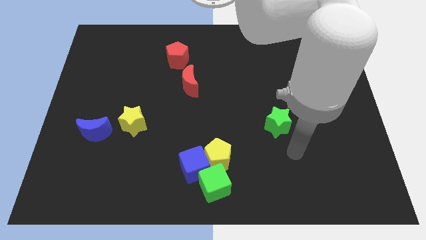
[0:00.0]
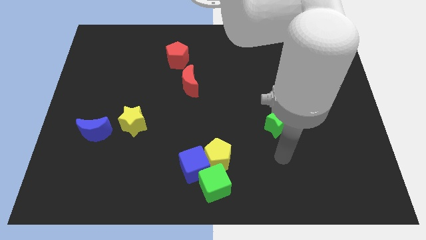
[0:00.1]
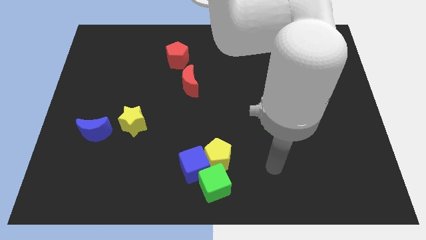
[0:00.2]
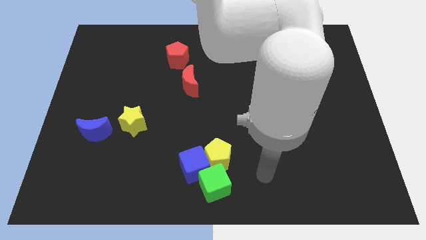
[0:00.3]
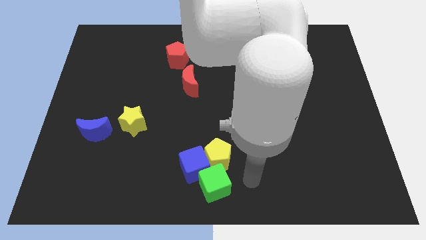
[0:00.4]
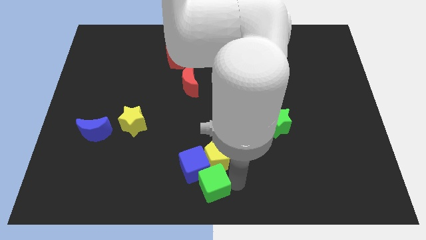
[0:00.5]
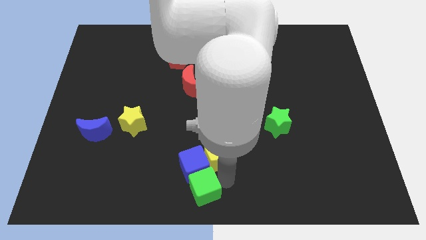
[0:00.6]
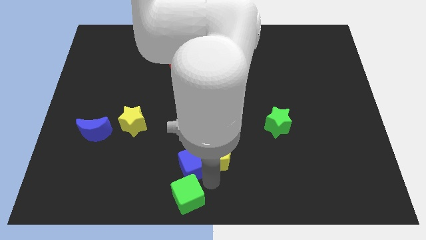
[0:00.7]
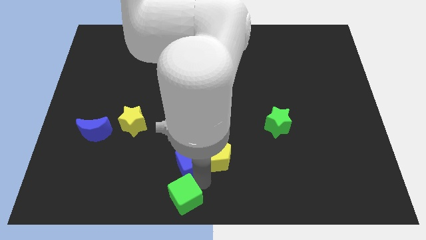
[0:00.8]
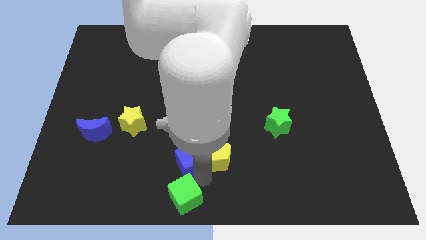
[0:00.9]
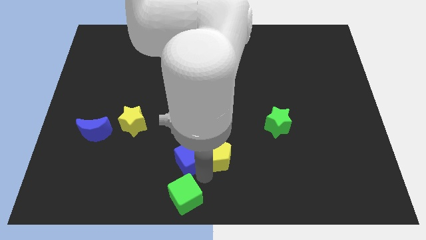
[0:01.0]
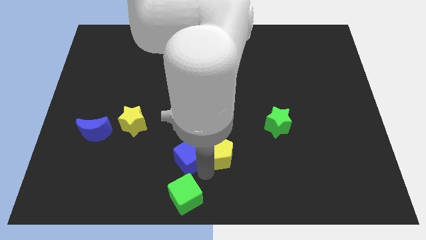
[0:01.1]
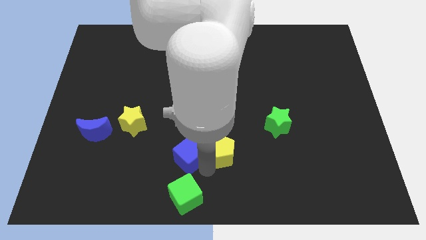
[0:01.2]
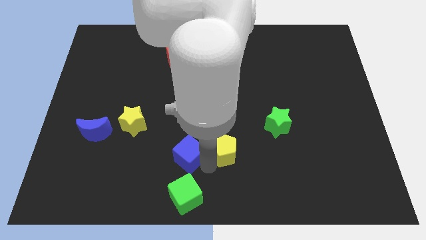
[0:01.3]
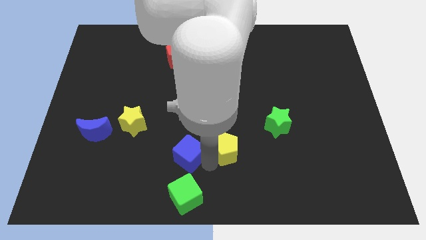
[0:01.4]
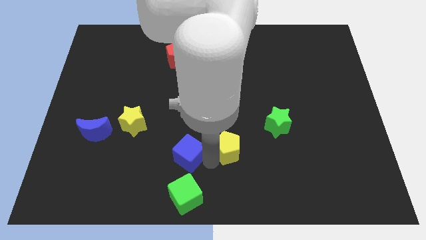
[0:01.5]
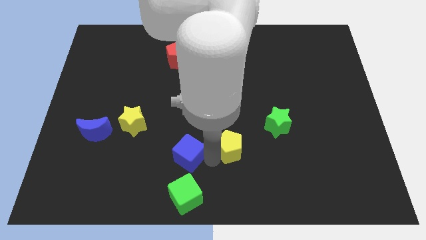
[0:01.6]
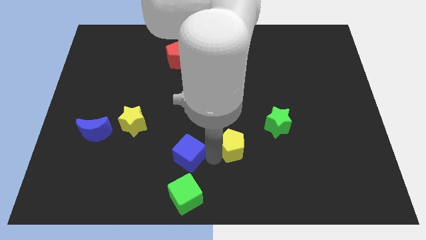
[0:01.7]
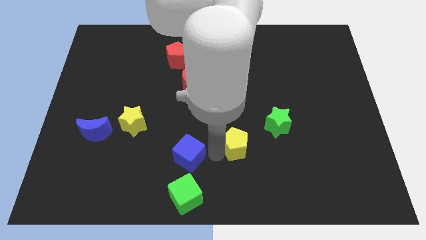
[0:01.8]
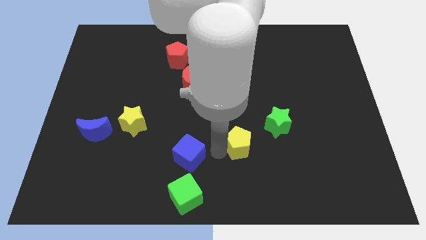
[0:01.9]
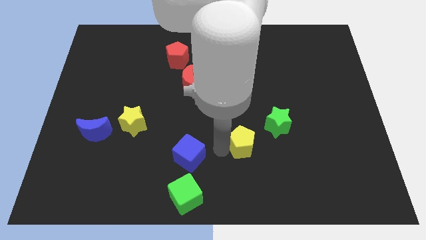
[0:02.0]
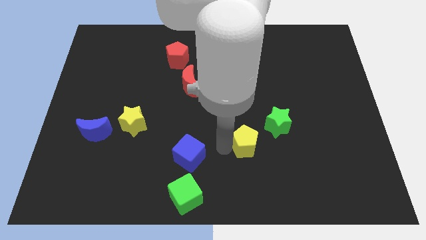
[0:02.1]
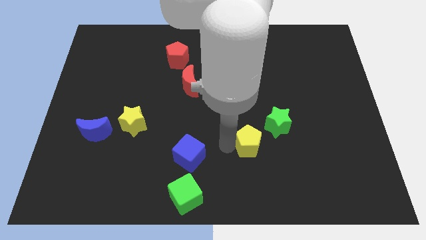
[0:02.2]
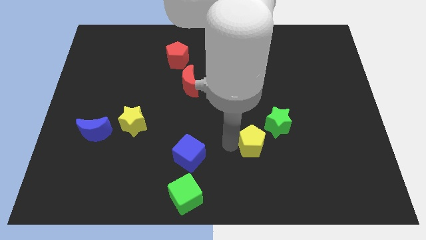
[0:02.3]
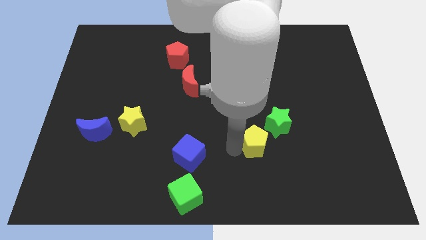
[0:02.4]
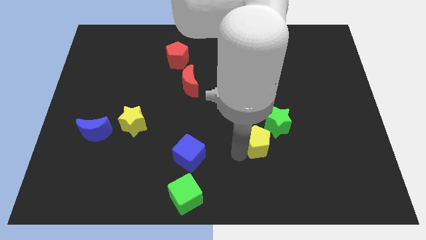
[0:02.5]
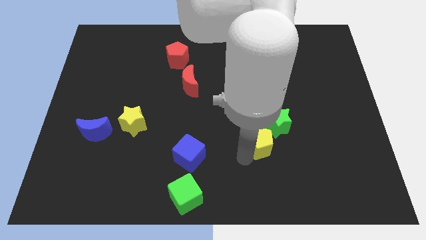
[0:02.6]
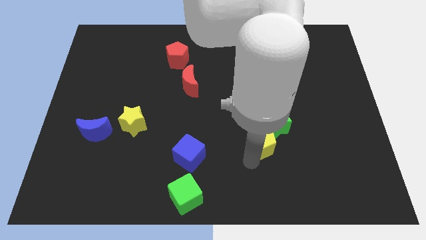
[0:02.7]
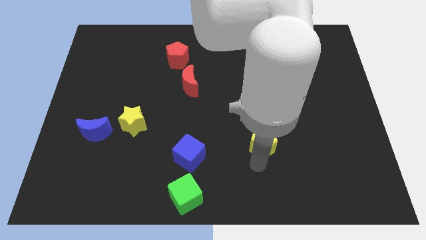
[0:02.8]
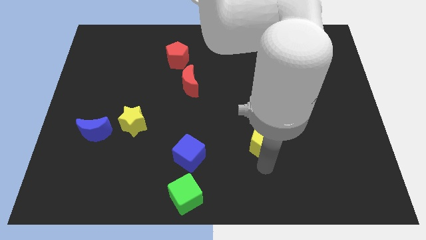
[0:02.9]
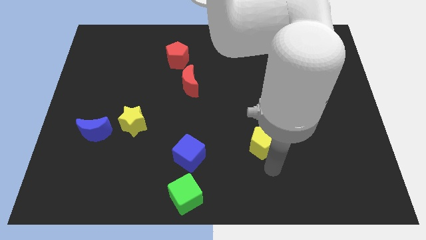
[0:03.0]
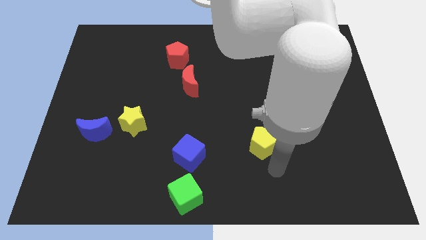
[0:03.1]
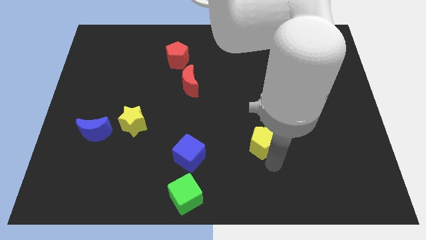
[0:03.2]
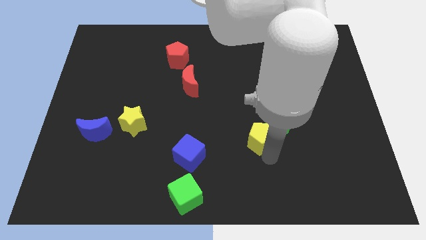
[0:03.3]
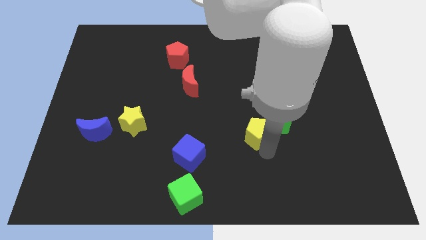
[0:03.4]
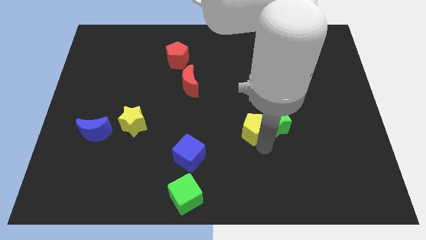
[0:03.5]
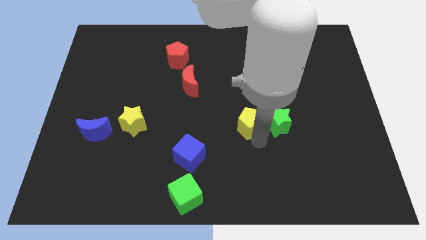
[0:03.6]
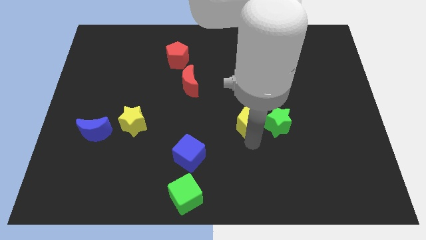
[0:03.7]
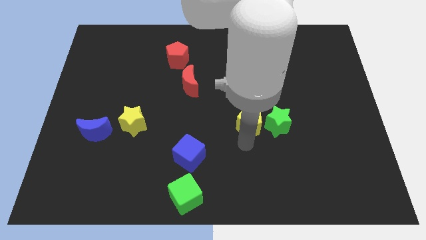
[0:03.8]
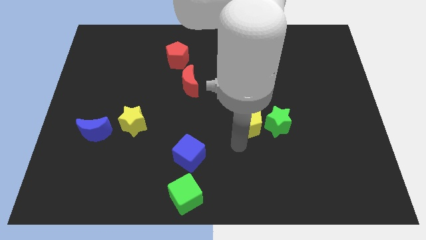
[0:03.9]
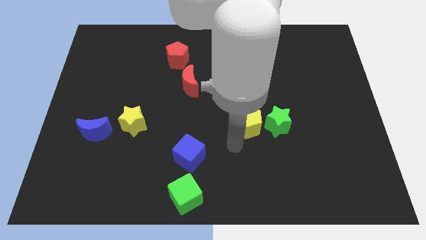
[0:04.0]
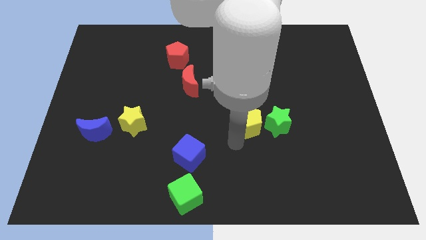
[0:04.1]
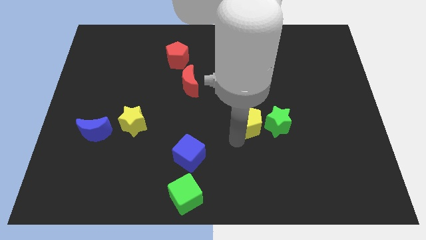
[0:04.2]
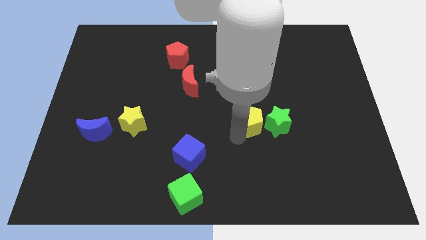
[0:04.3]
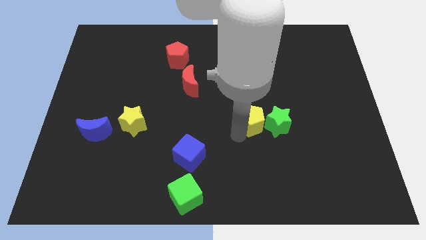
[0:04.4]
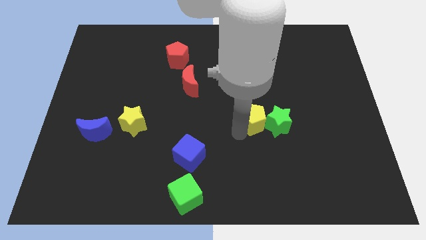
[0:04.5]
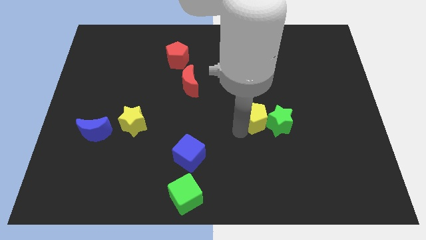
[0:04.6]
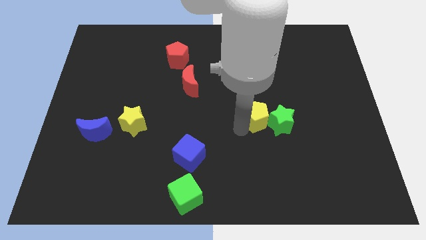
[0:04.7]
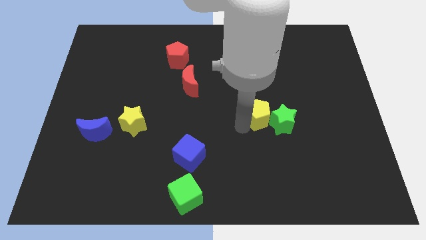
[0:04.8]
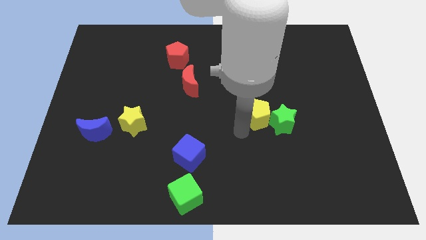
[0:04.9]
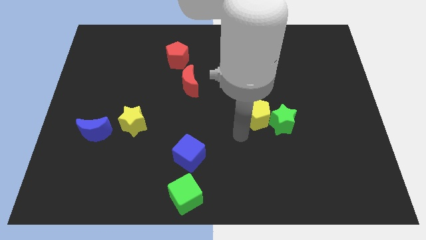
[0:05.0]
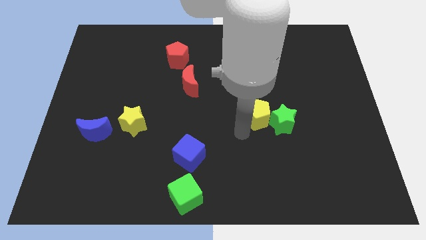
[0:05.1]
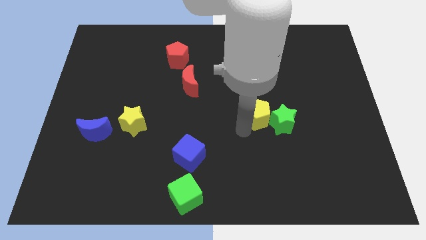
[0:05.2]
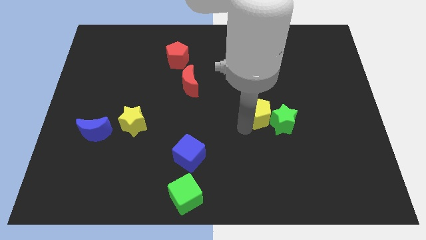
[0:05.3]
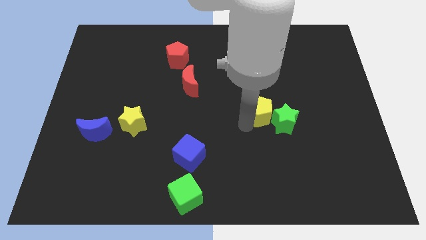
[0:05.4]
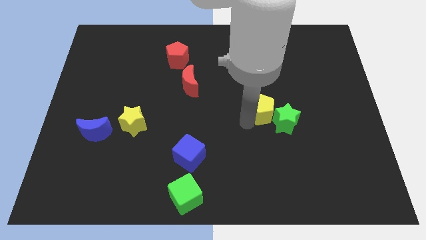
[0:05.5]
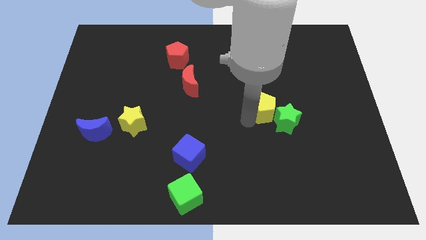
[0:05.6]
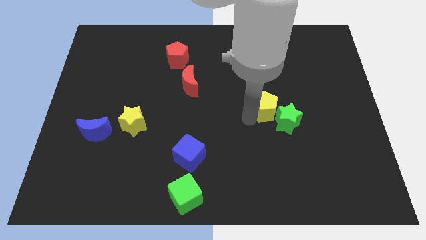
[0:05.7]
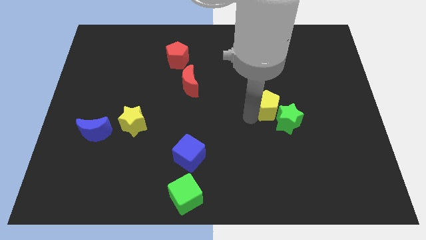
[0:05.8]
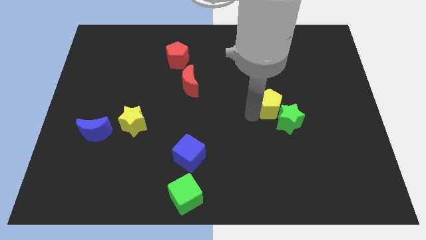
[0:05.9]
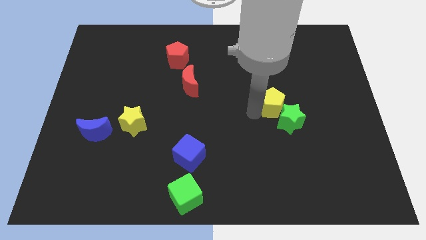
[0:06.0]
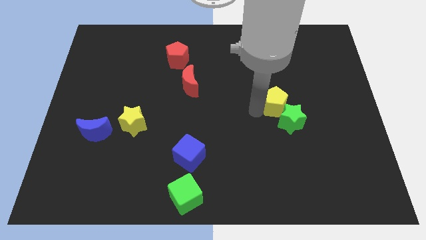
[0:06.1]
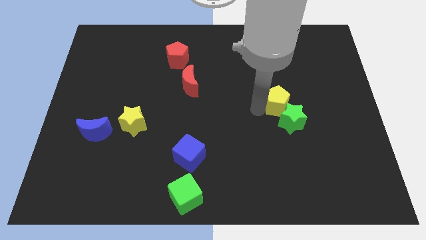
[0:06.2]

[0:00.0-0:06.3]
push the yellow pentagon upwards and then to the right

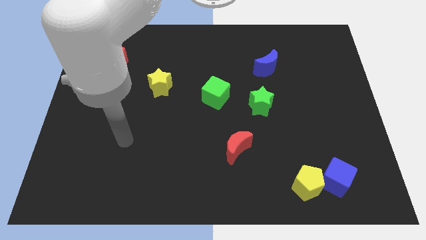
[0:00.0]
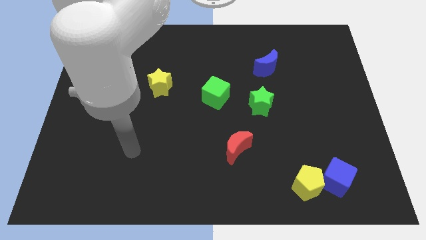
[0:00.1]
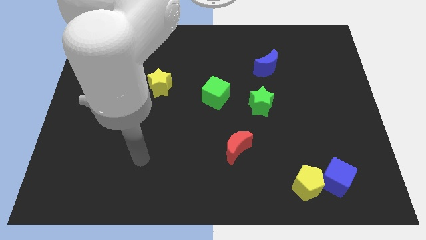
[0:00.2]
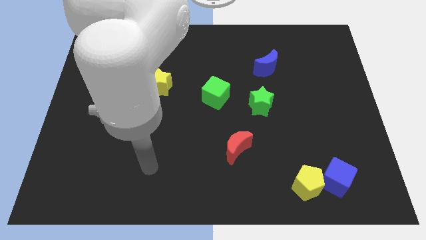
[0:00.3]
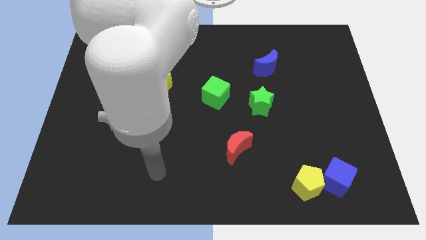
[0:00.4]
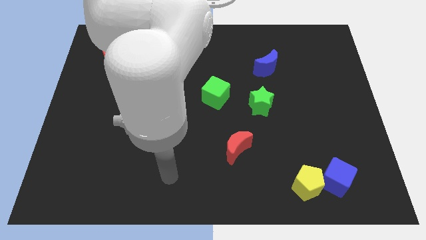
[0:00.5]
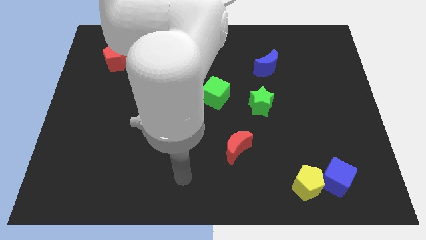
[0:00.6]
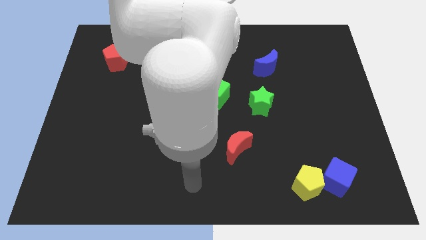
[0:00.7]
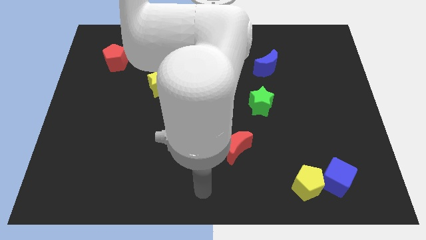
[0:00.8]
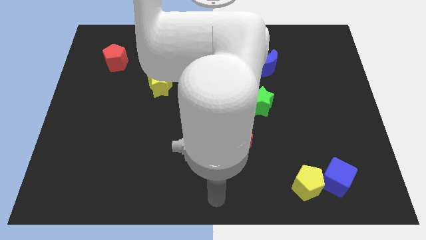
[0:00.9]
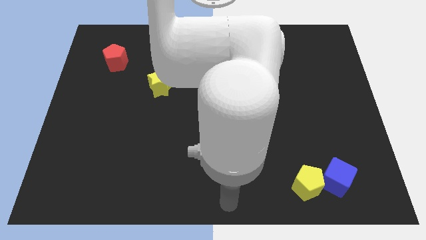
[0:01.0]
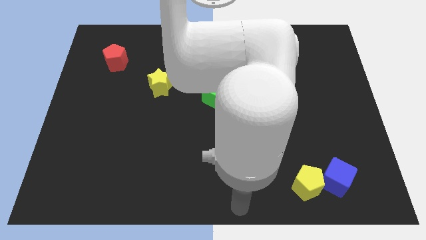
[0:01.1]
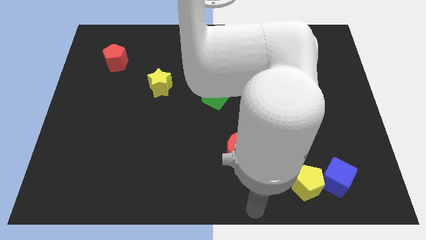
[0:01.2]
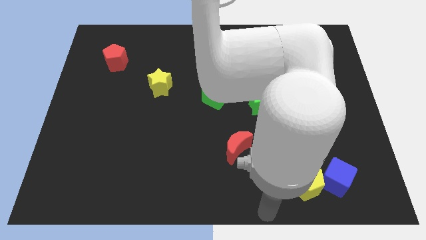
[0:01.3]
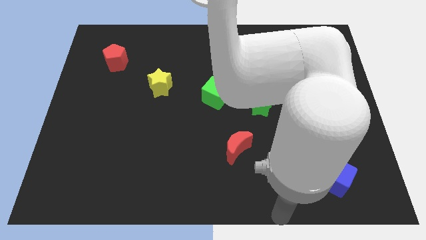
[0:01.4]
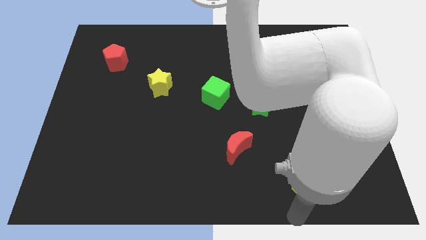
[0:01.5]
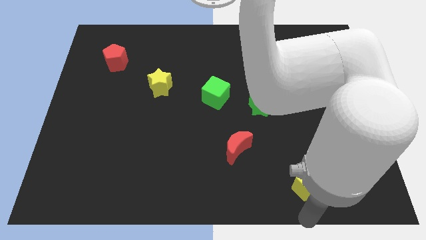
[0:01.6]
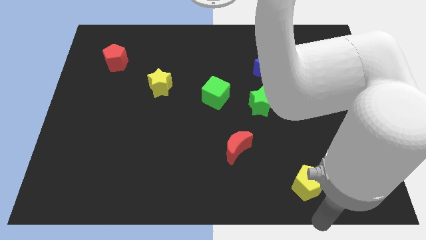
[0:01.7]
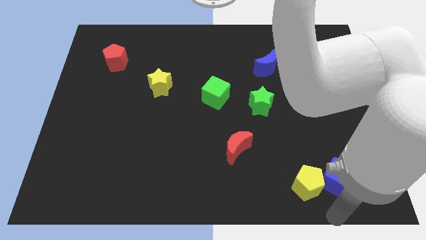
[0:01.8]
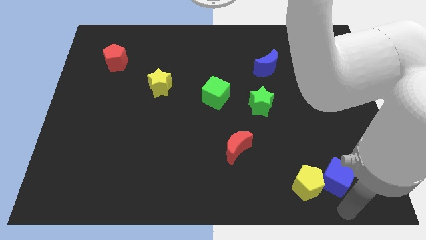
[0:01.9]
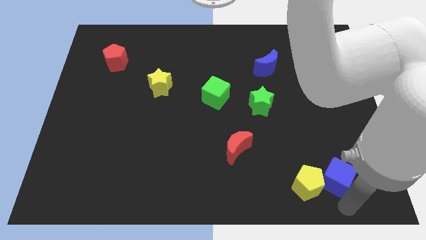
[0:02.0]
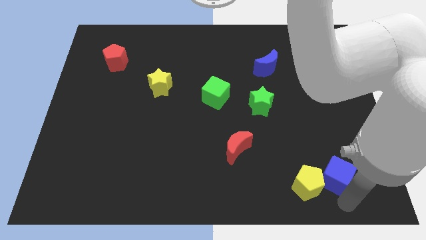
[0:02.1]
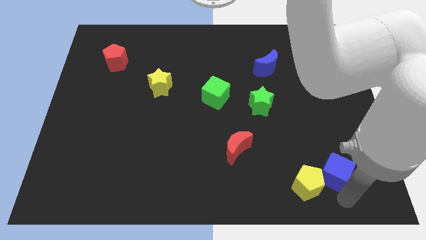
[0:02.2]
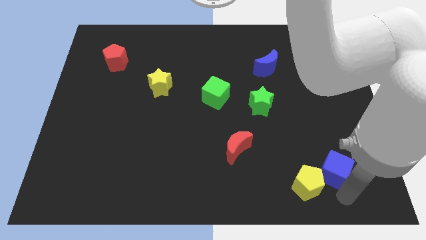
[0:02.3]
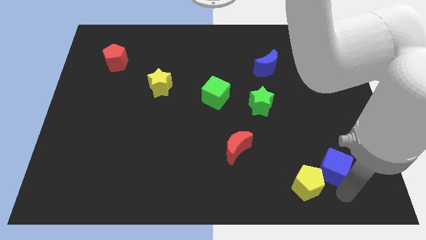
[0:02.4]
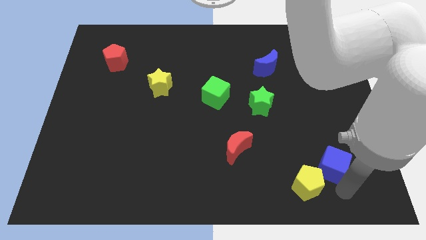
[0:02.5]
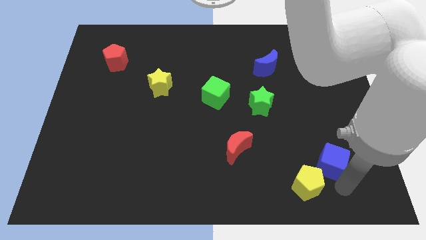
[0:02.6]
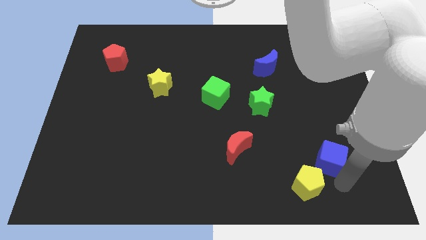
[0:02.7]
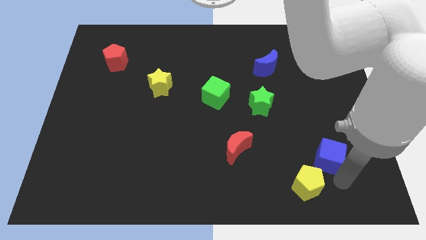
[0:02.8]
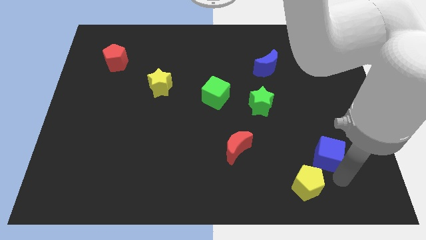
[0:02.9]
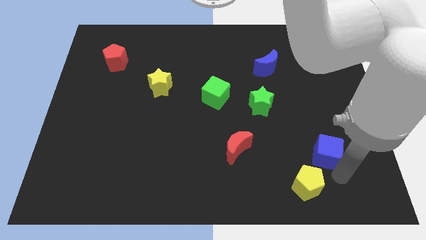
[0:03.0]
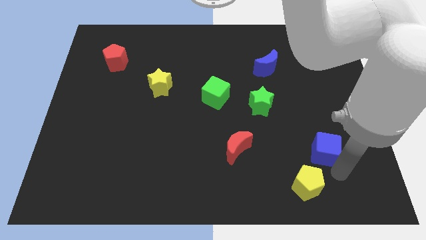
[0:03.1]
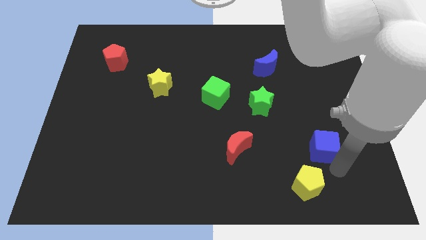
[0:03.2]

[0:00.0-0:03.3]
push the blue cube a bit upwards
